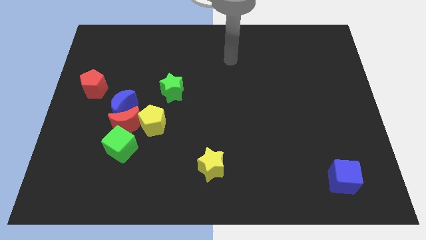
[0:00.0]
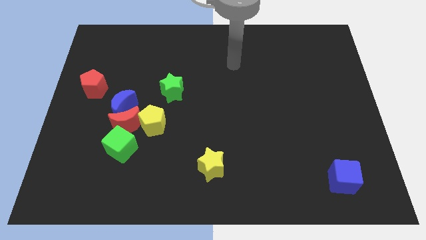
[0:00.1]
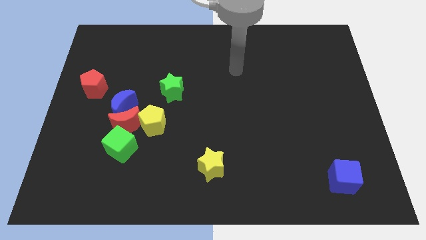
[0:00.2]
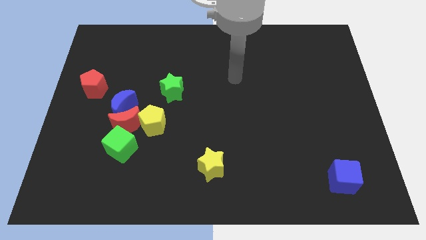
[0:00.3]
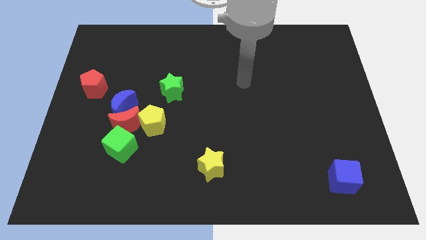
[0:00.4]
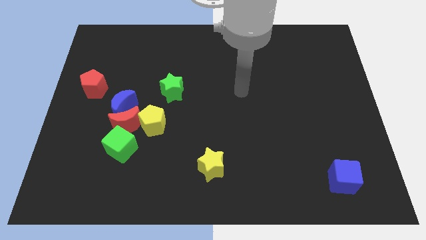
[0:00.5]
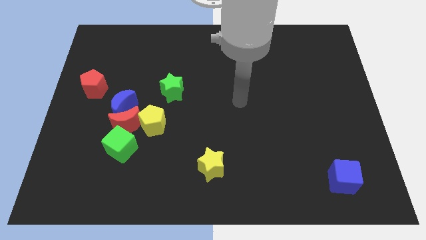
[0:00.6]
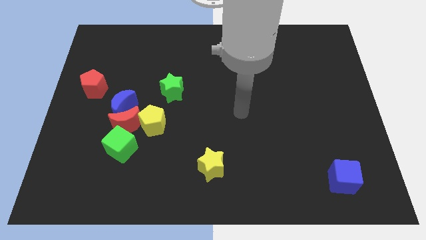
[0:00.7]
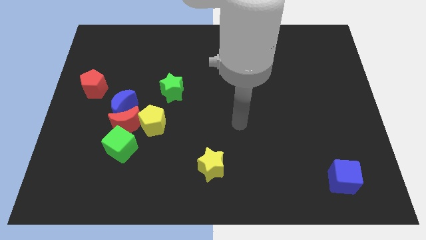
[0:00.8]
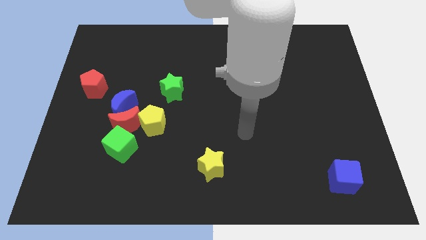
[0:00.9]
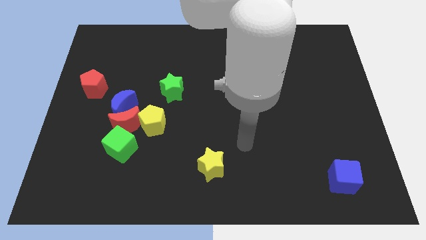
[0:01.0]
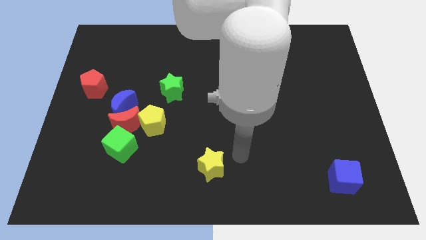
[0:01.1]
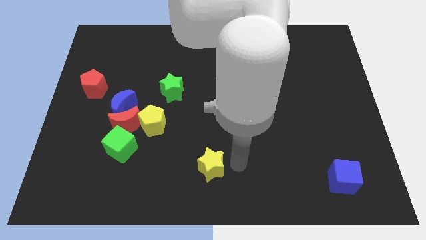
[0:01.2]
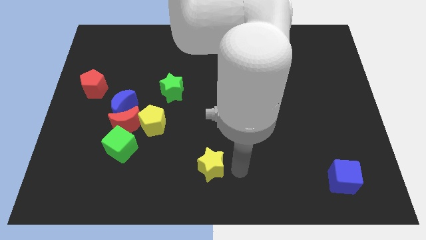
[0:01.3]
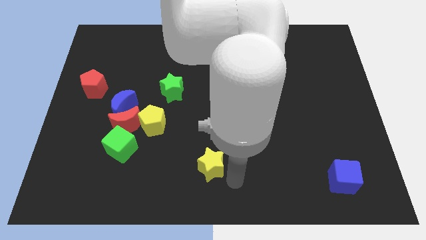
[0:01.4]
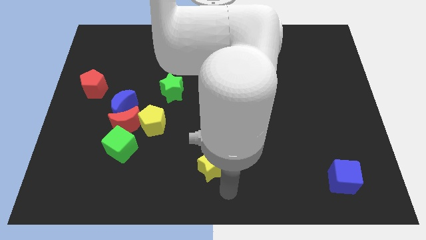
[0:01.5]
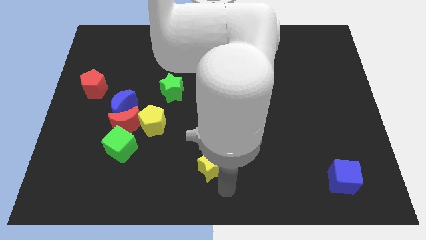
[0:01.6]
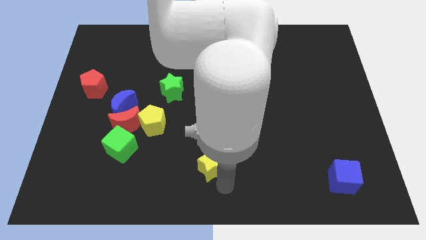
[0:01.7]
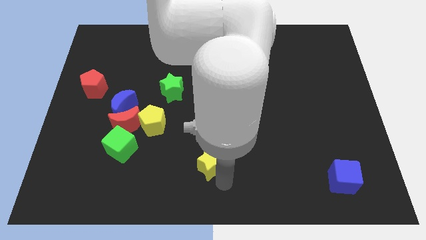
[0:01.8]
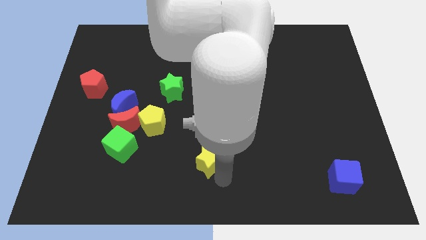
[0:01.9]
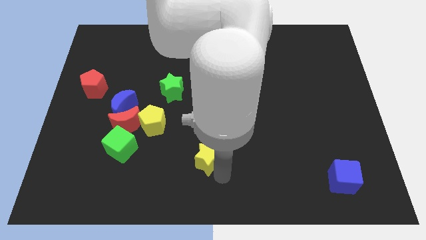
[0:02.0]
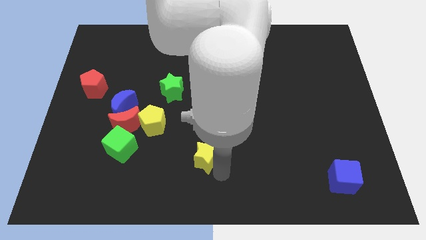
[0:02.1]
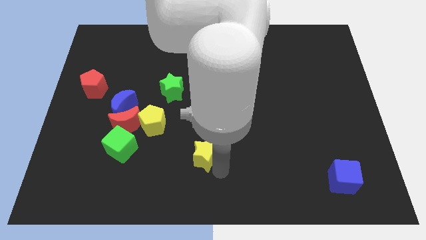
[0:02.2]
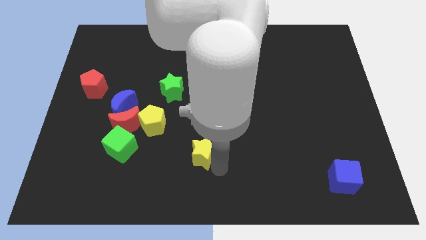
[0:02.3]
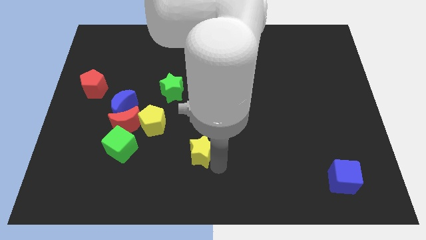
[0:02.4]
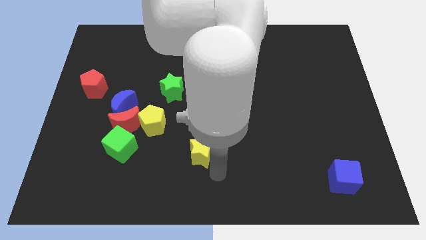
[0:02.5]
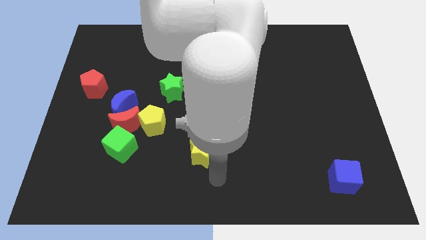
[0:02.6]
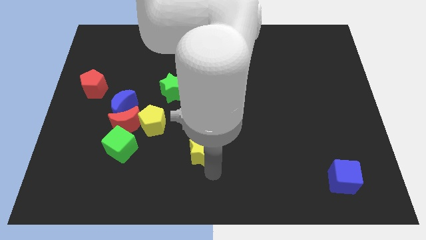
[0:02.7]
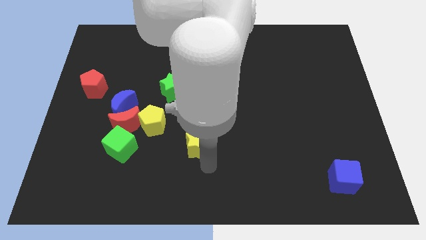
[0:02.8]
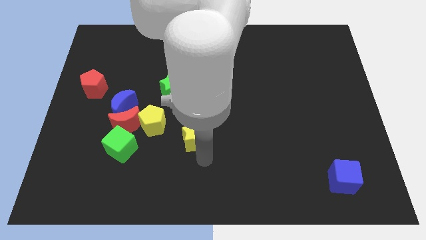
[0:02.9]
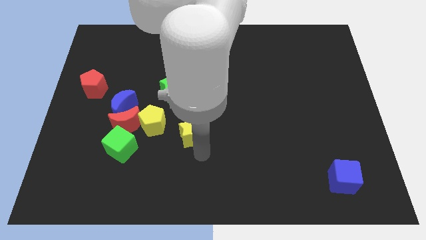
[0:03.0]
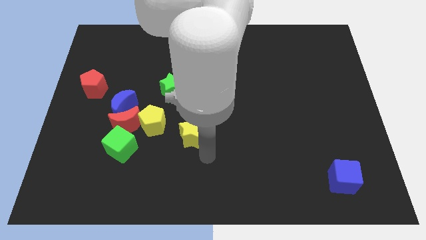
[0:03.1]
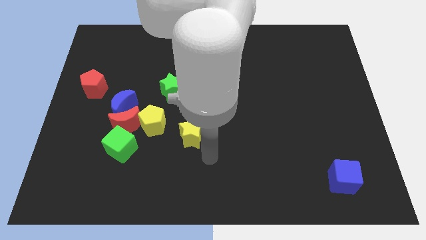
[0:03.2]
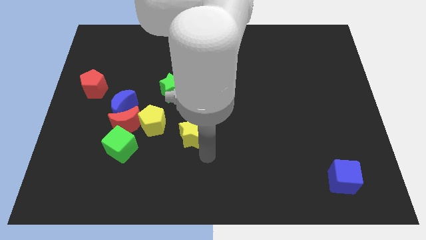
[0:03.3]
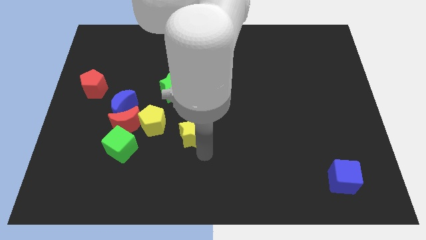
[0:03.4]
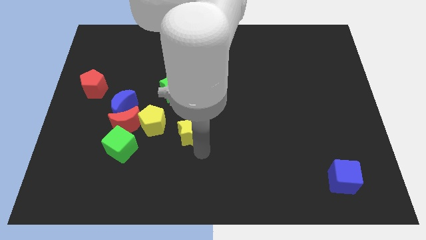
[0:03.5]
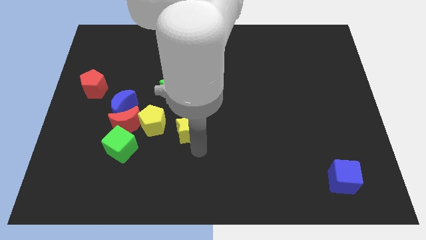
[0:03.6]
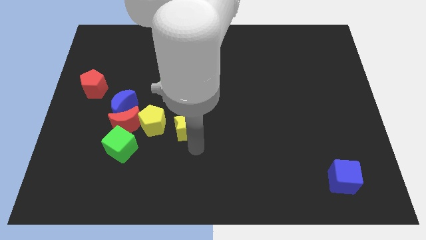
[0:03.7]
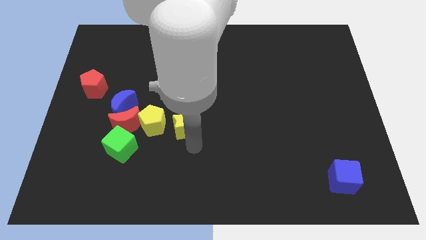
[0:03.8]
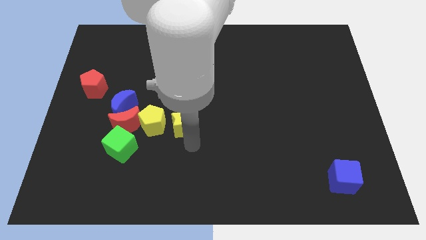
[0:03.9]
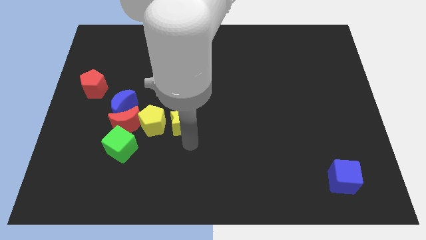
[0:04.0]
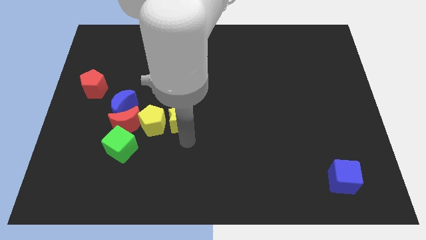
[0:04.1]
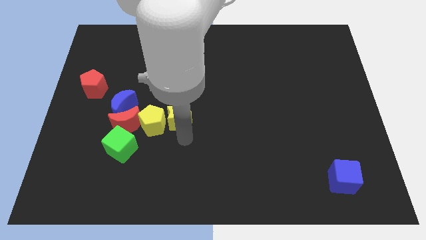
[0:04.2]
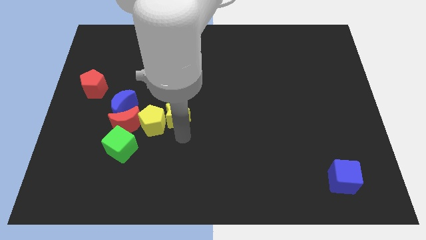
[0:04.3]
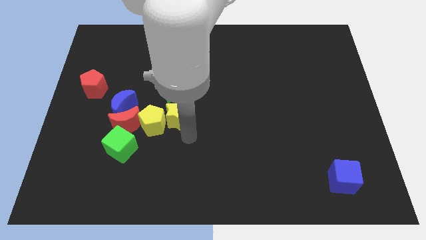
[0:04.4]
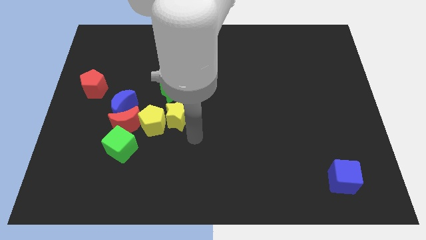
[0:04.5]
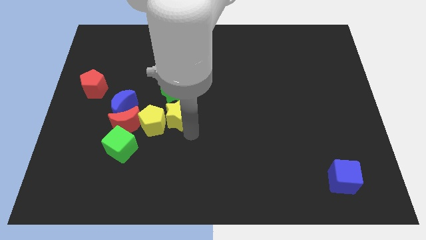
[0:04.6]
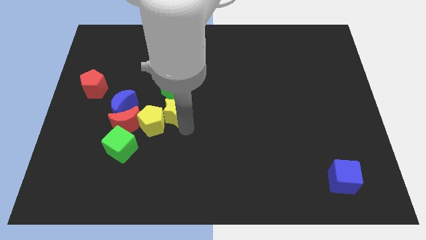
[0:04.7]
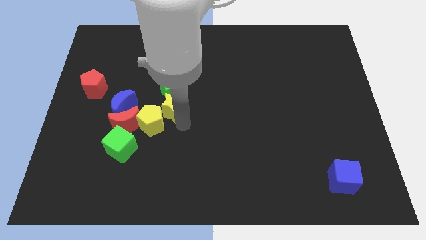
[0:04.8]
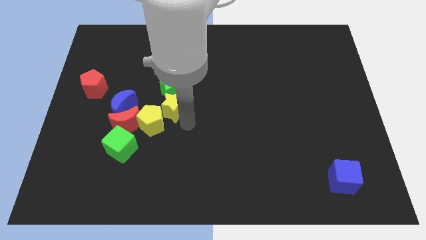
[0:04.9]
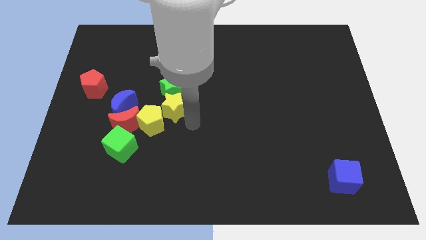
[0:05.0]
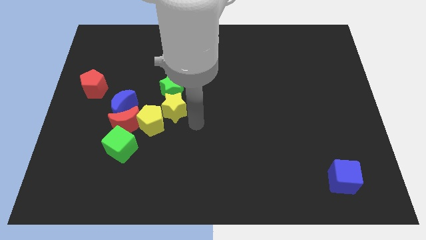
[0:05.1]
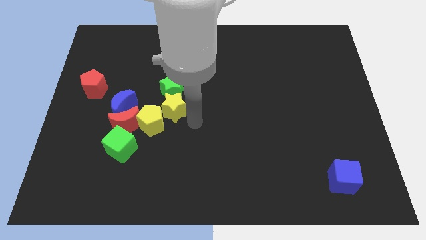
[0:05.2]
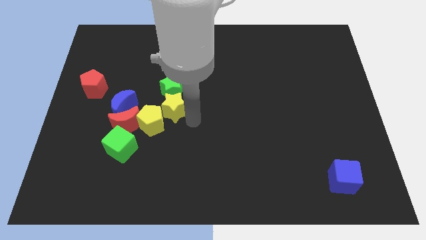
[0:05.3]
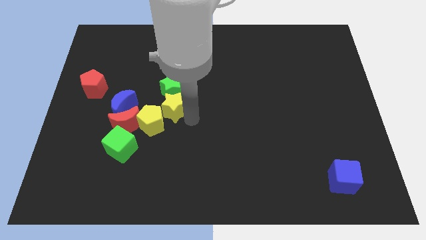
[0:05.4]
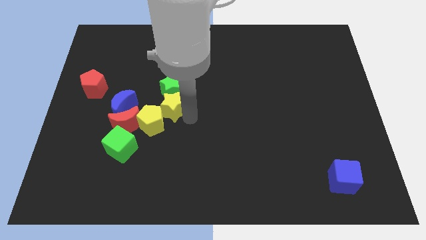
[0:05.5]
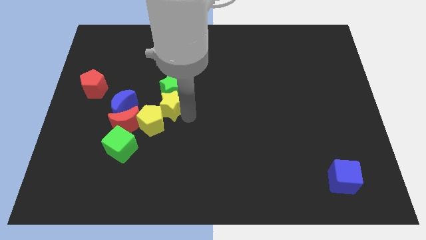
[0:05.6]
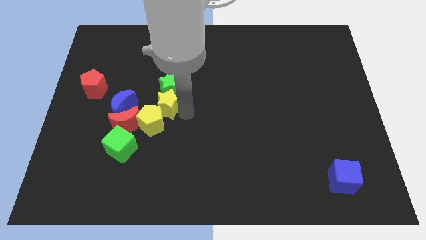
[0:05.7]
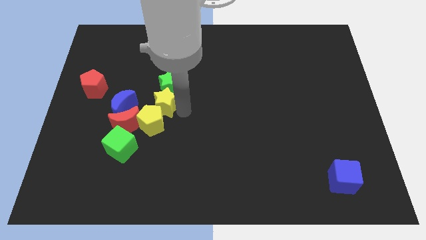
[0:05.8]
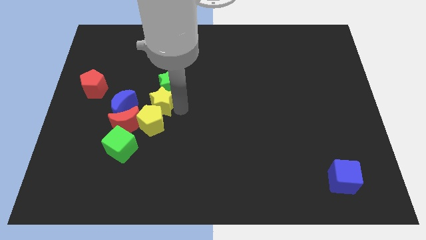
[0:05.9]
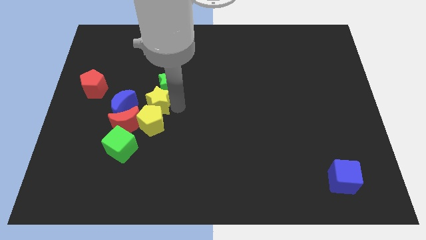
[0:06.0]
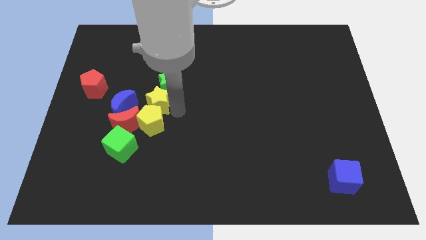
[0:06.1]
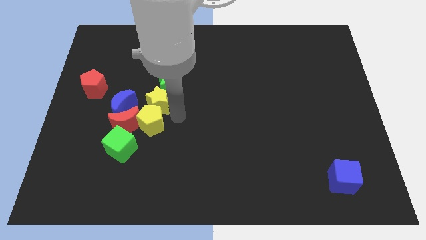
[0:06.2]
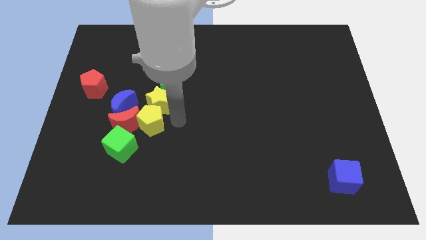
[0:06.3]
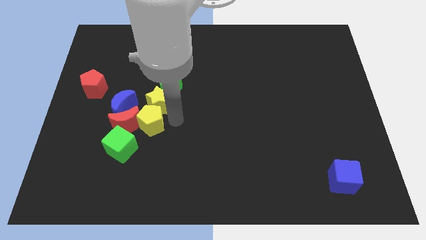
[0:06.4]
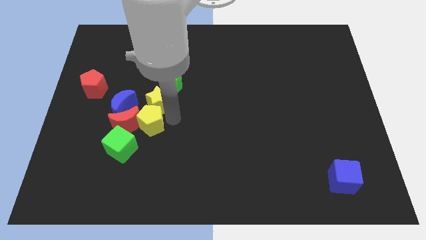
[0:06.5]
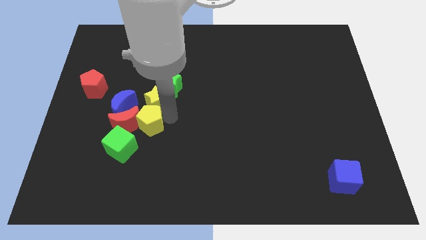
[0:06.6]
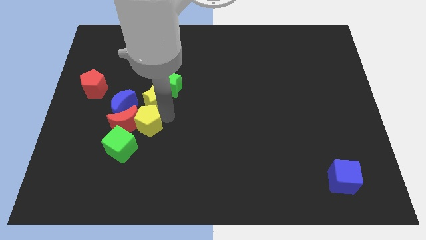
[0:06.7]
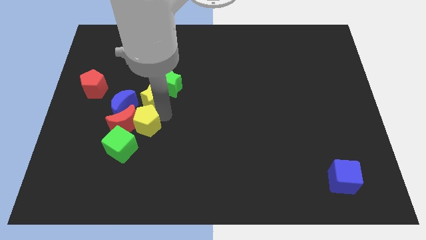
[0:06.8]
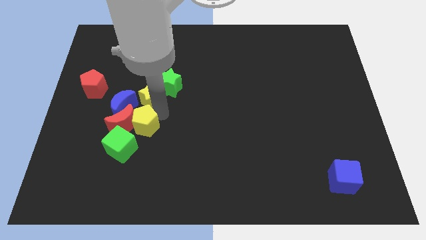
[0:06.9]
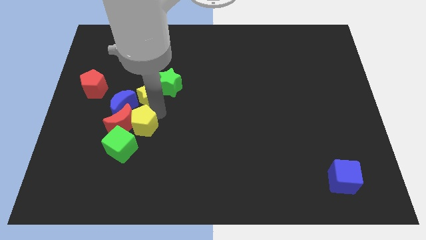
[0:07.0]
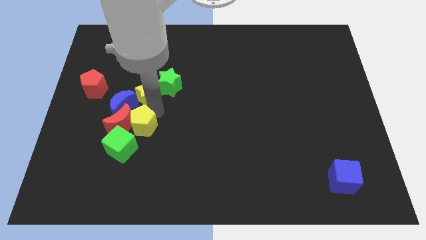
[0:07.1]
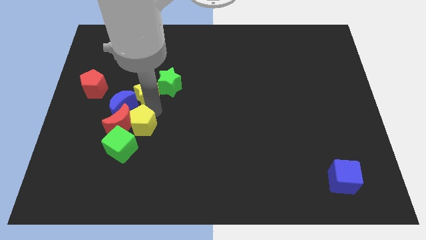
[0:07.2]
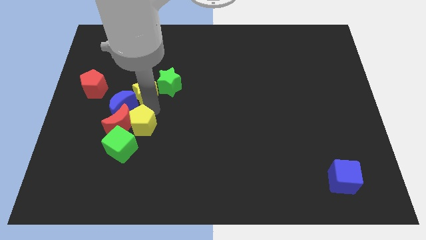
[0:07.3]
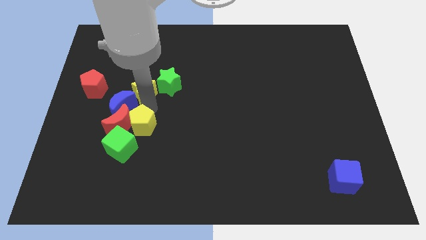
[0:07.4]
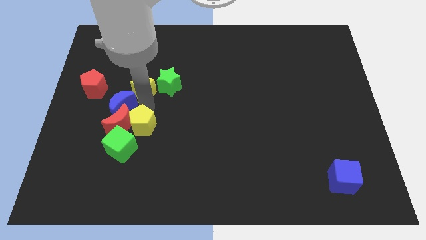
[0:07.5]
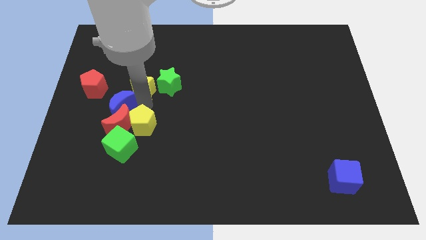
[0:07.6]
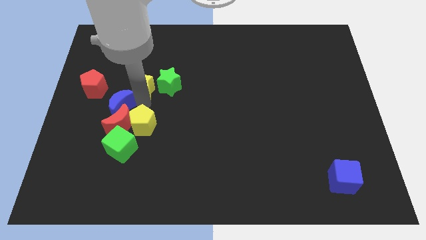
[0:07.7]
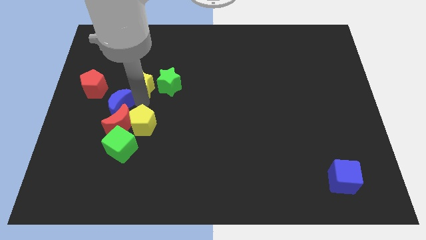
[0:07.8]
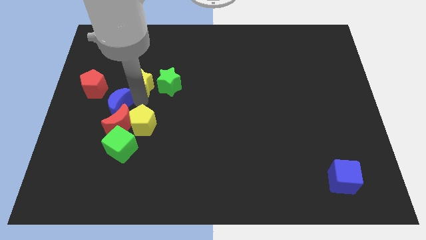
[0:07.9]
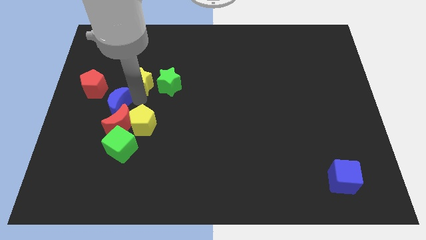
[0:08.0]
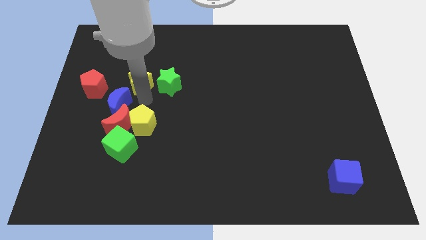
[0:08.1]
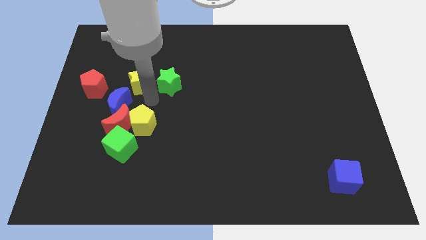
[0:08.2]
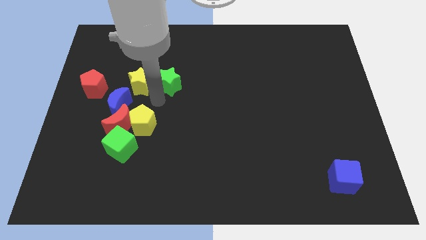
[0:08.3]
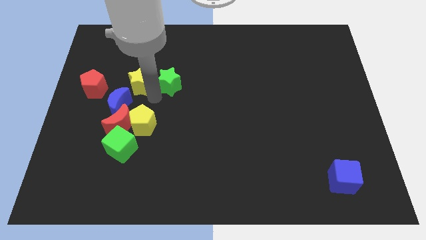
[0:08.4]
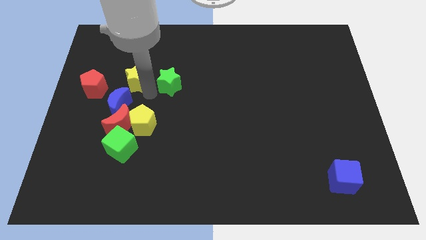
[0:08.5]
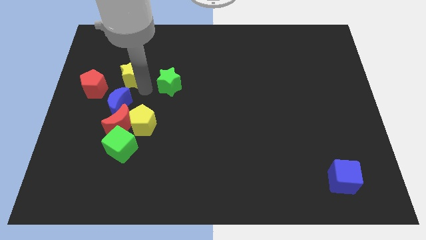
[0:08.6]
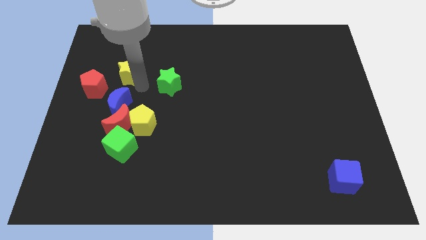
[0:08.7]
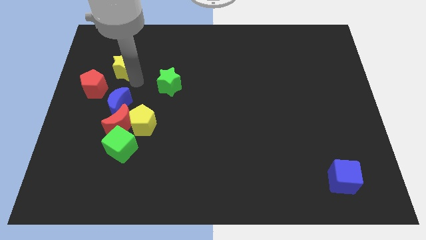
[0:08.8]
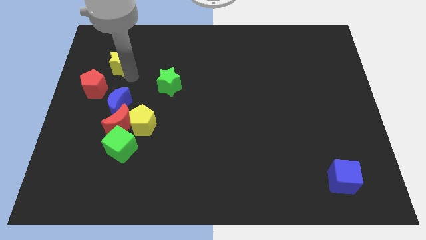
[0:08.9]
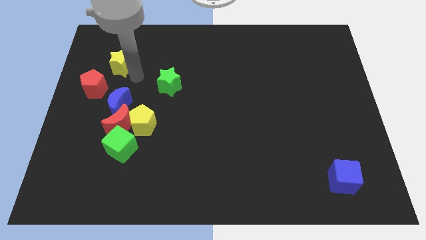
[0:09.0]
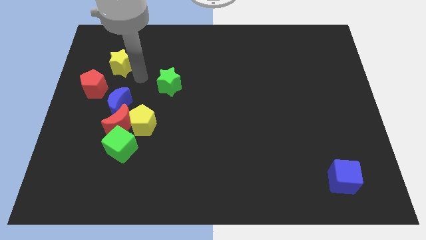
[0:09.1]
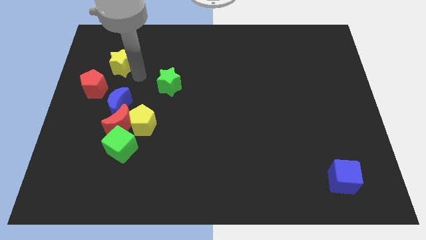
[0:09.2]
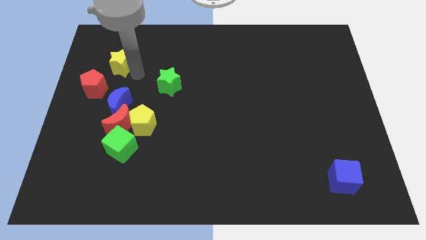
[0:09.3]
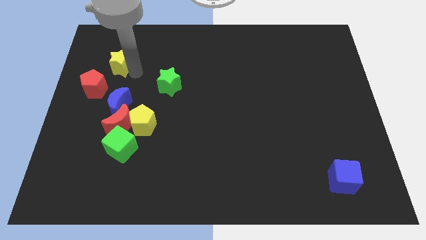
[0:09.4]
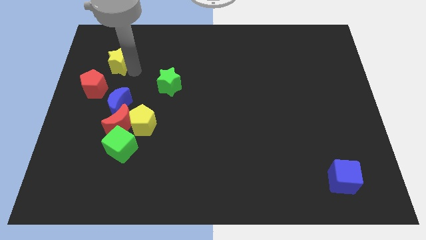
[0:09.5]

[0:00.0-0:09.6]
put the yellow star above the red pentagon
